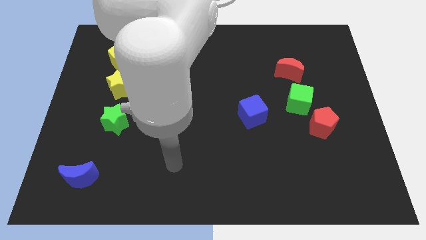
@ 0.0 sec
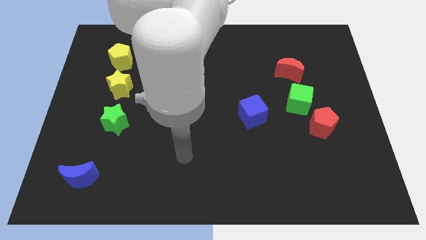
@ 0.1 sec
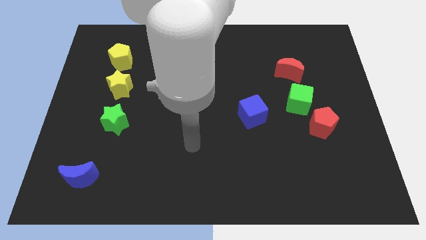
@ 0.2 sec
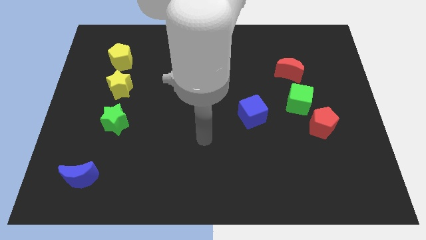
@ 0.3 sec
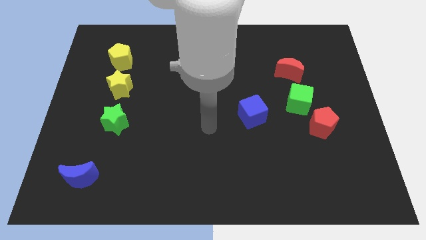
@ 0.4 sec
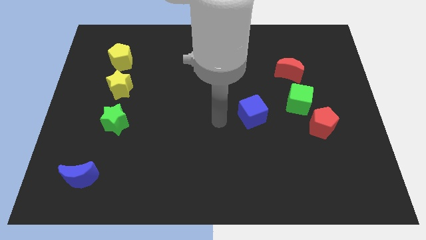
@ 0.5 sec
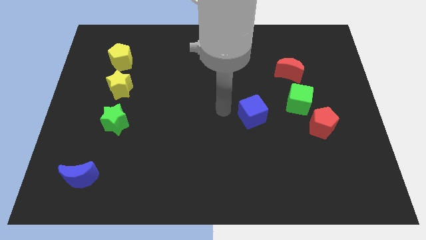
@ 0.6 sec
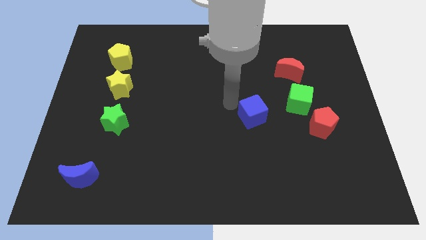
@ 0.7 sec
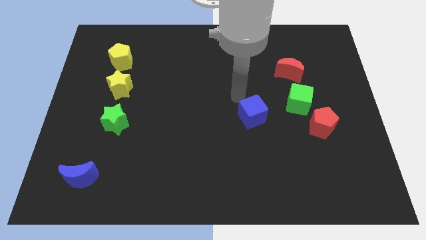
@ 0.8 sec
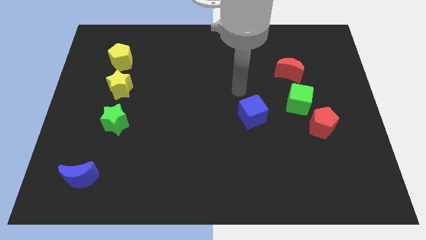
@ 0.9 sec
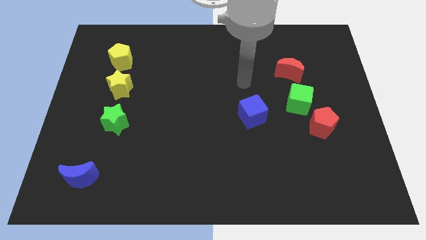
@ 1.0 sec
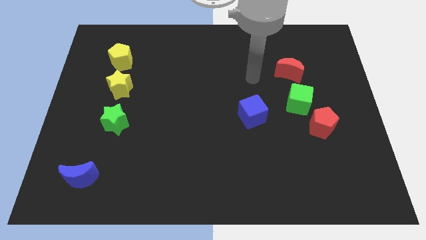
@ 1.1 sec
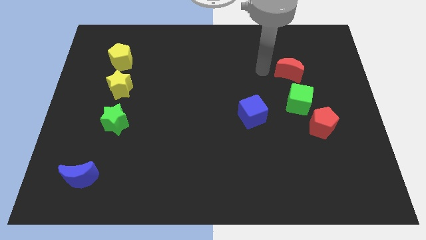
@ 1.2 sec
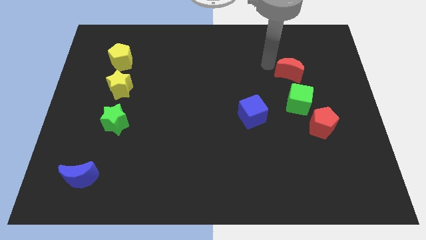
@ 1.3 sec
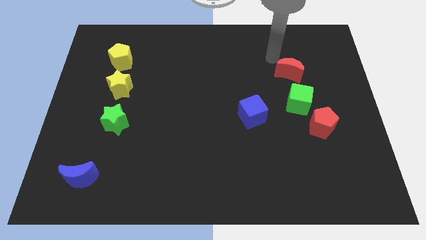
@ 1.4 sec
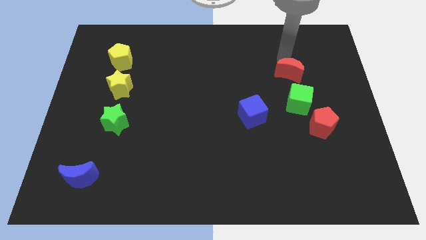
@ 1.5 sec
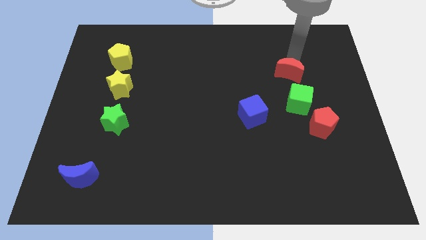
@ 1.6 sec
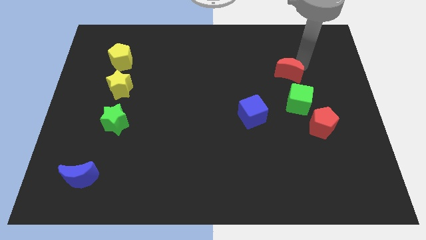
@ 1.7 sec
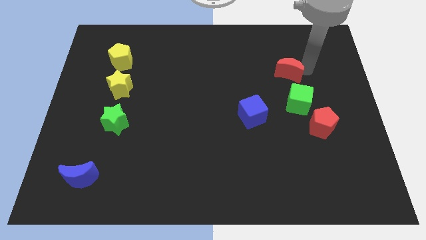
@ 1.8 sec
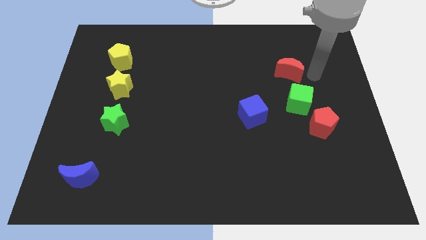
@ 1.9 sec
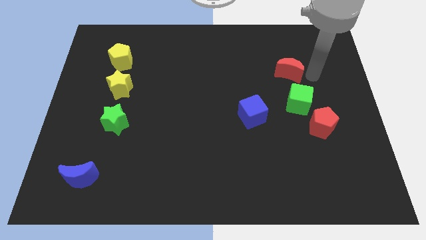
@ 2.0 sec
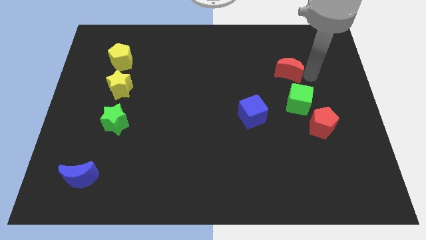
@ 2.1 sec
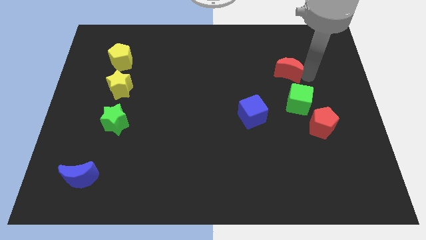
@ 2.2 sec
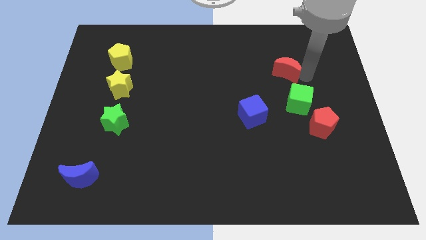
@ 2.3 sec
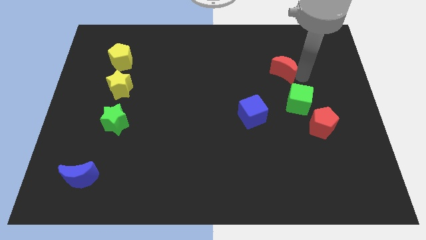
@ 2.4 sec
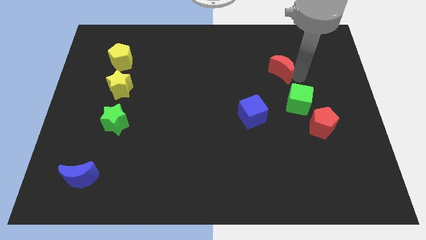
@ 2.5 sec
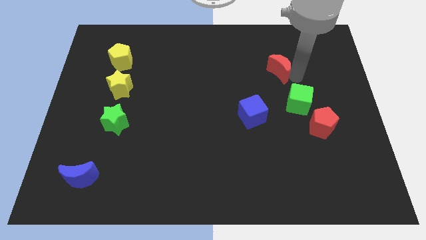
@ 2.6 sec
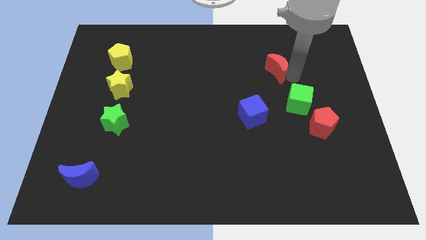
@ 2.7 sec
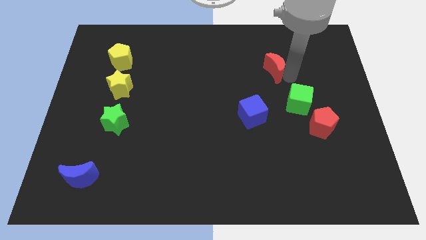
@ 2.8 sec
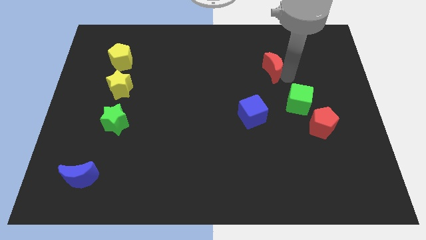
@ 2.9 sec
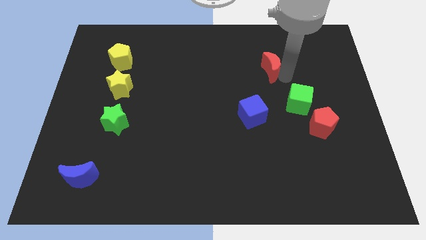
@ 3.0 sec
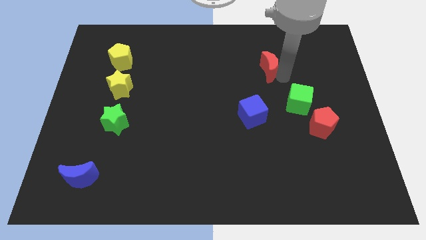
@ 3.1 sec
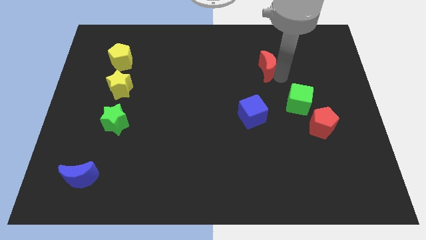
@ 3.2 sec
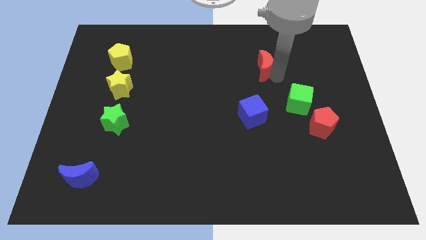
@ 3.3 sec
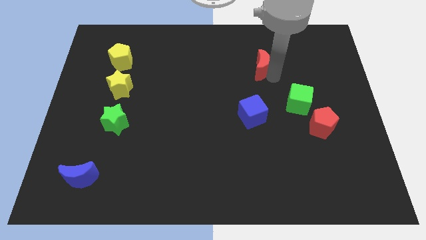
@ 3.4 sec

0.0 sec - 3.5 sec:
slightly move the red moon to the left

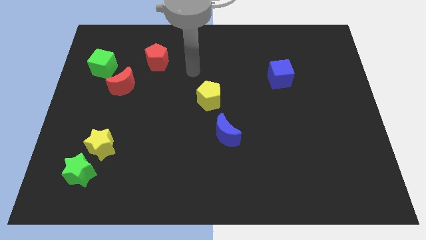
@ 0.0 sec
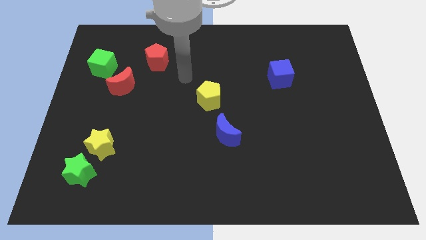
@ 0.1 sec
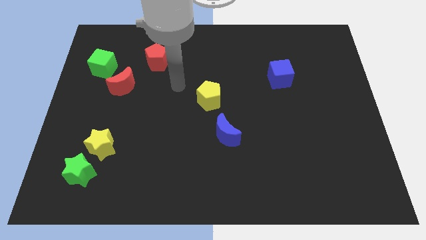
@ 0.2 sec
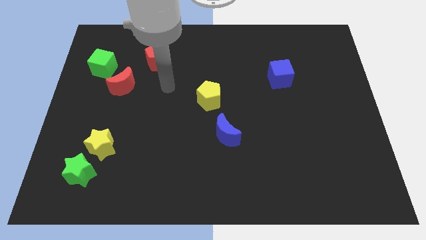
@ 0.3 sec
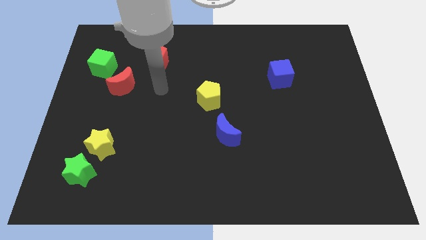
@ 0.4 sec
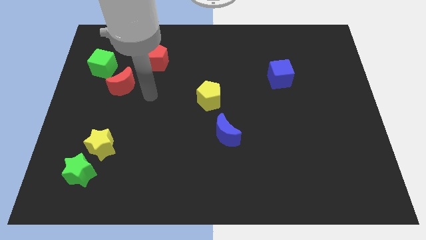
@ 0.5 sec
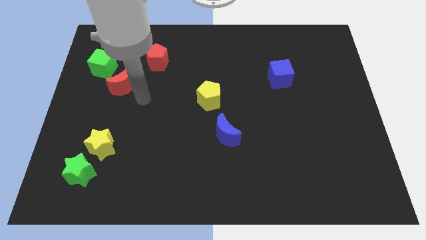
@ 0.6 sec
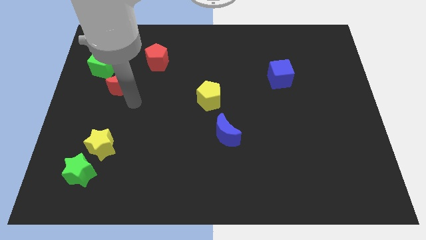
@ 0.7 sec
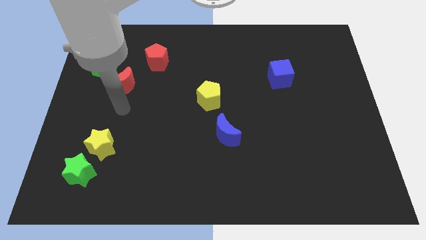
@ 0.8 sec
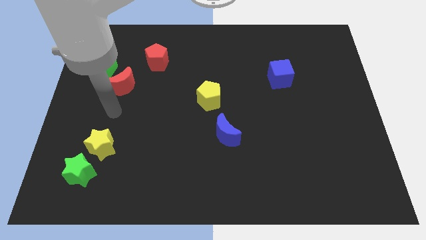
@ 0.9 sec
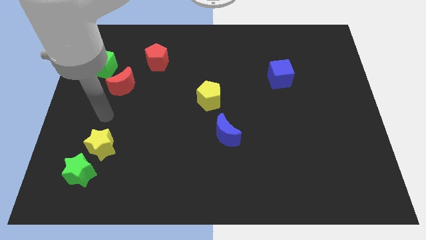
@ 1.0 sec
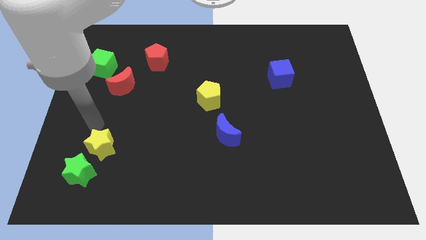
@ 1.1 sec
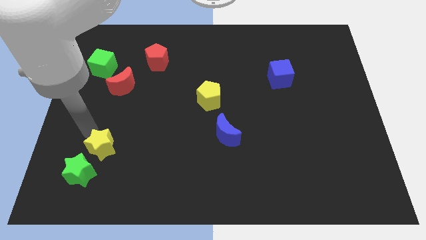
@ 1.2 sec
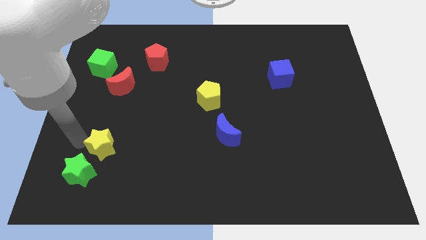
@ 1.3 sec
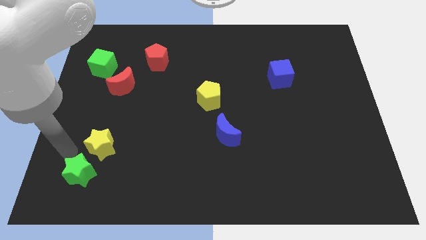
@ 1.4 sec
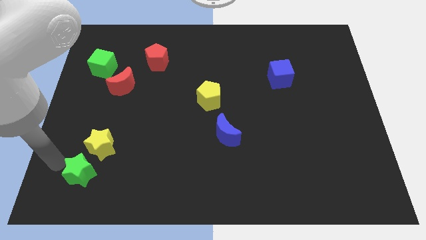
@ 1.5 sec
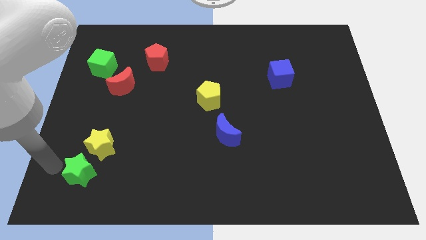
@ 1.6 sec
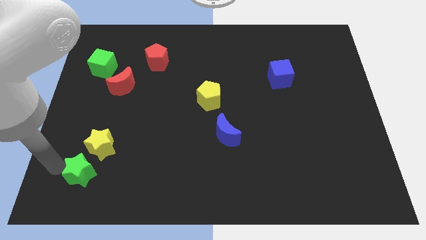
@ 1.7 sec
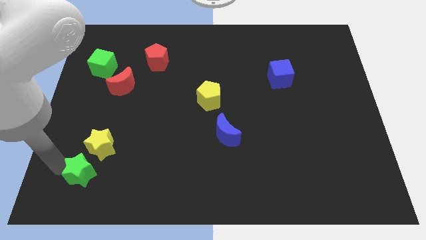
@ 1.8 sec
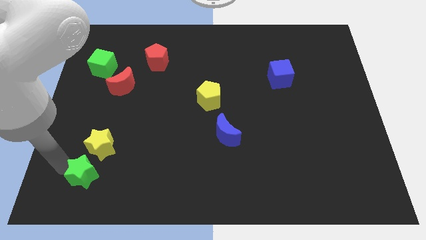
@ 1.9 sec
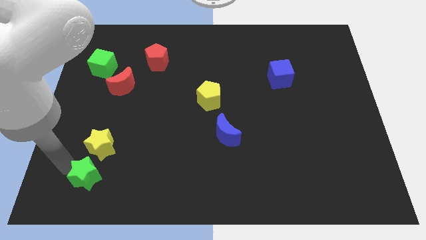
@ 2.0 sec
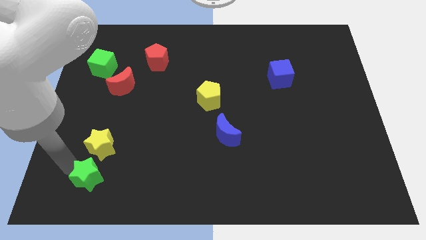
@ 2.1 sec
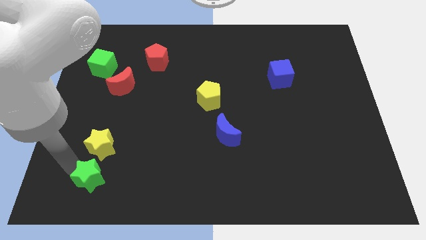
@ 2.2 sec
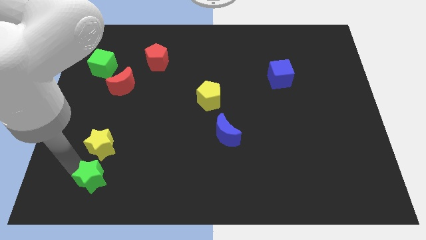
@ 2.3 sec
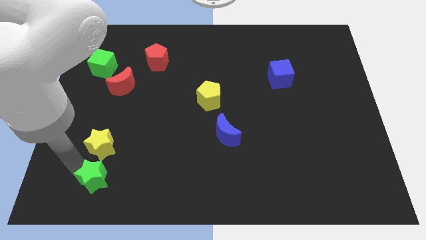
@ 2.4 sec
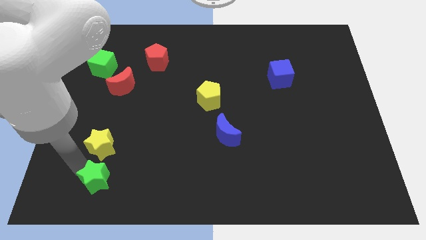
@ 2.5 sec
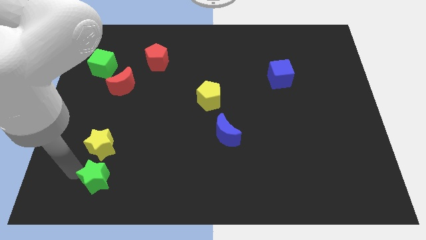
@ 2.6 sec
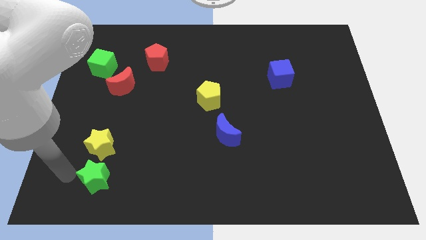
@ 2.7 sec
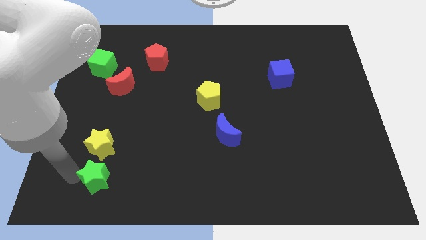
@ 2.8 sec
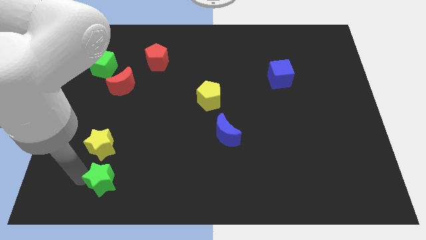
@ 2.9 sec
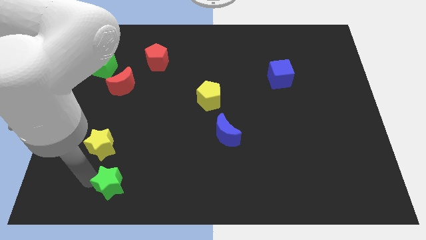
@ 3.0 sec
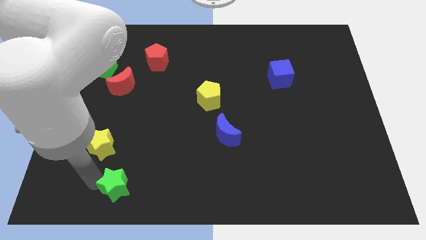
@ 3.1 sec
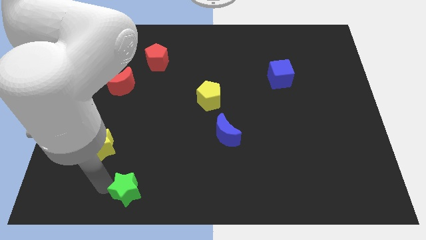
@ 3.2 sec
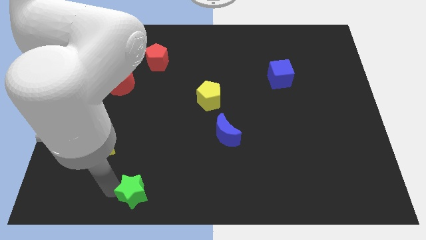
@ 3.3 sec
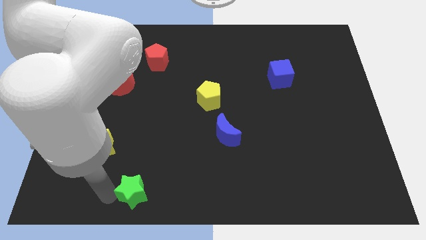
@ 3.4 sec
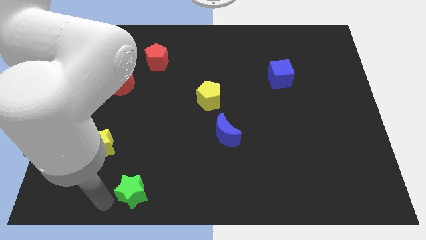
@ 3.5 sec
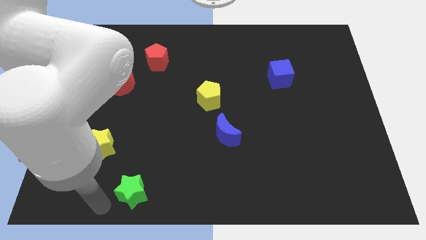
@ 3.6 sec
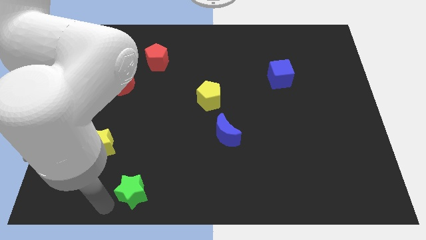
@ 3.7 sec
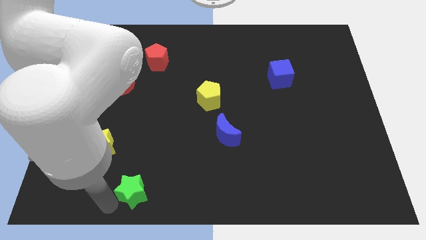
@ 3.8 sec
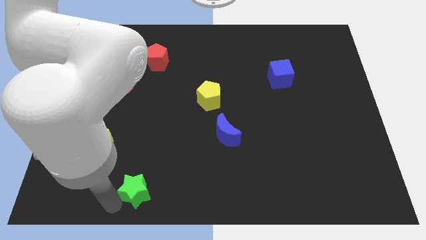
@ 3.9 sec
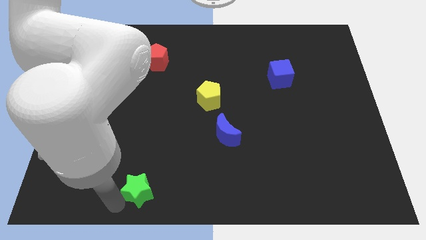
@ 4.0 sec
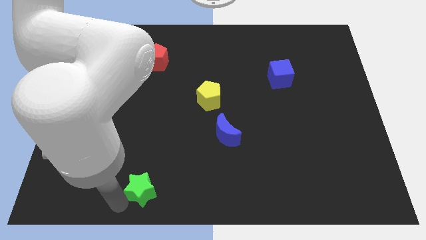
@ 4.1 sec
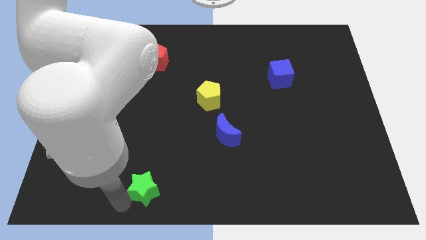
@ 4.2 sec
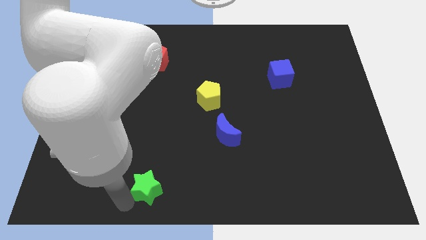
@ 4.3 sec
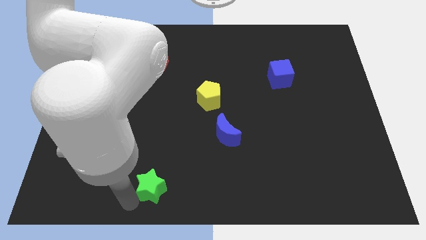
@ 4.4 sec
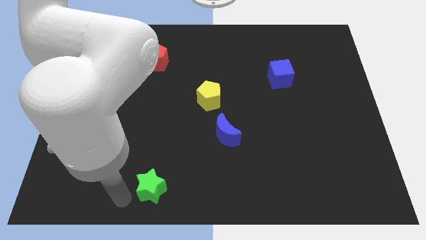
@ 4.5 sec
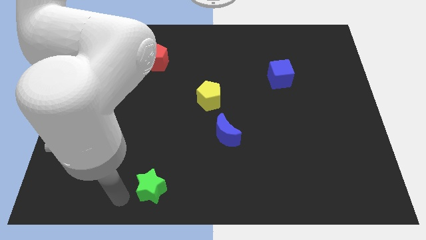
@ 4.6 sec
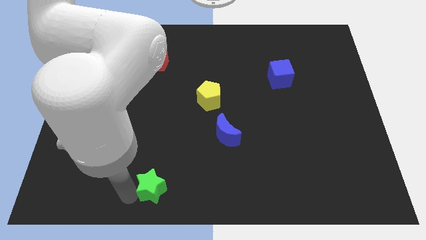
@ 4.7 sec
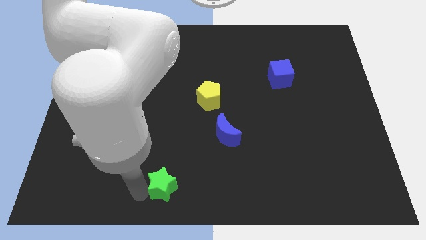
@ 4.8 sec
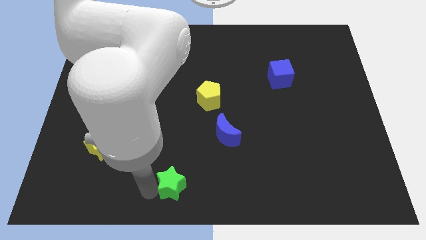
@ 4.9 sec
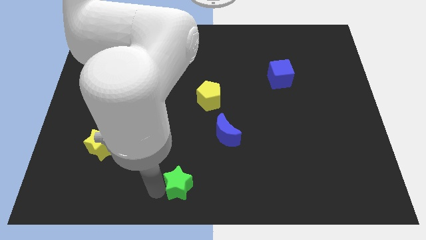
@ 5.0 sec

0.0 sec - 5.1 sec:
move the green star right
